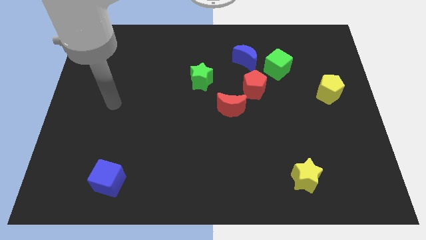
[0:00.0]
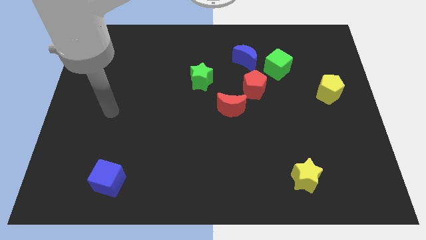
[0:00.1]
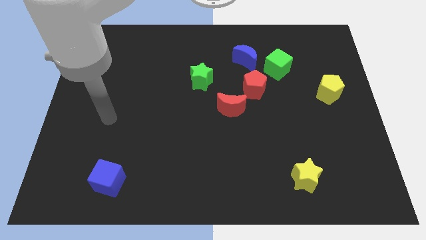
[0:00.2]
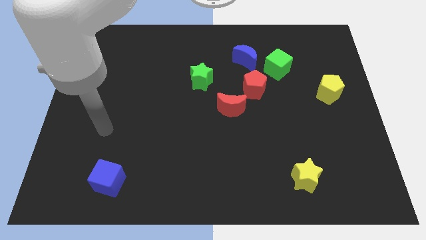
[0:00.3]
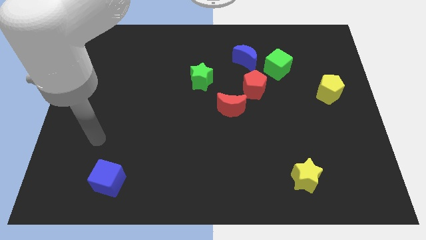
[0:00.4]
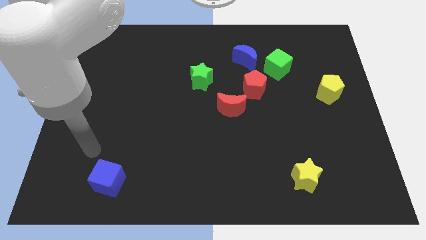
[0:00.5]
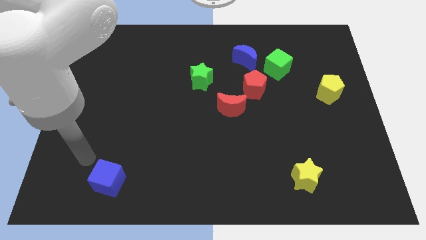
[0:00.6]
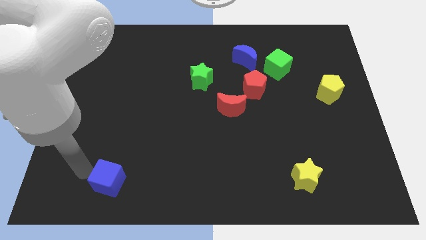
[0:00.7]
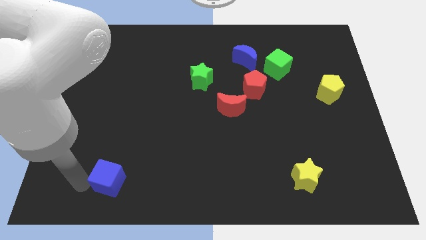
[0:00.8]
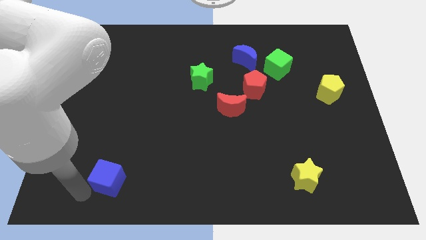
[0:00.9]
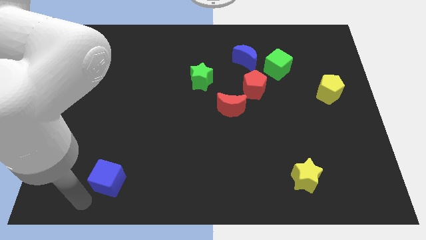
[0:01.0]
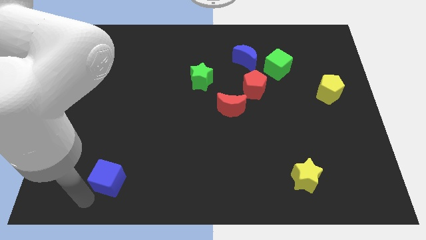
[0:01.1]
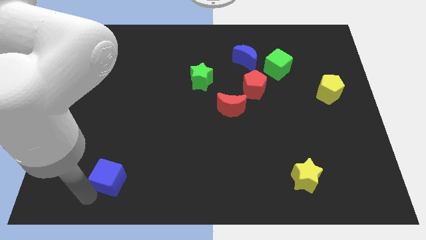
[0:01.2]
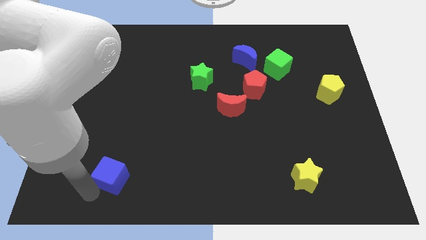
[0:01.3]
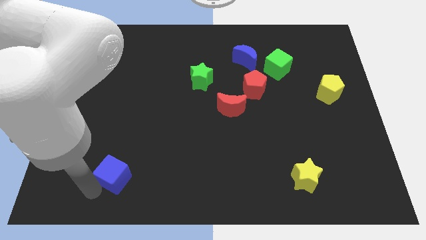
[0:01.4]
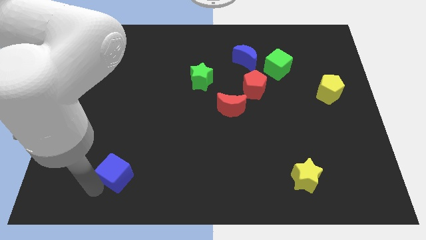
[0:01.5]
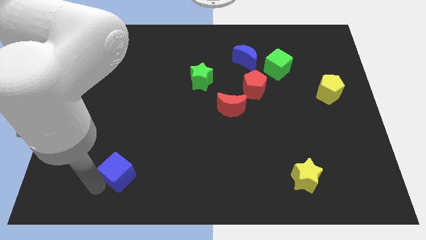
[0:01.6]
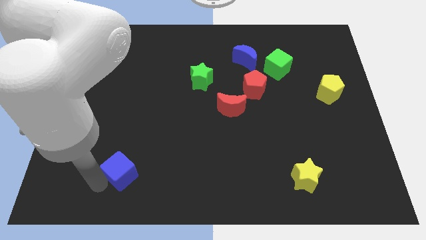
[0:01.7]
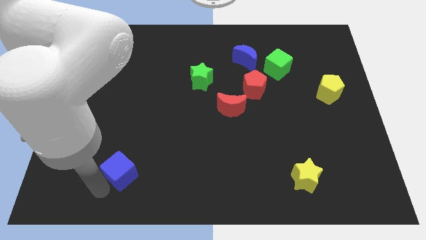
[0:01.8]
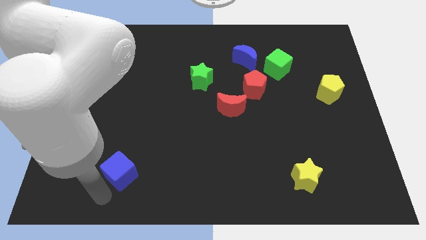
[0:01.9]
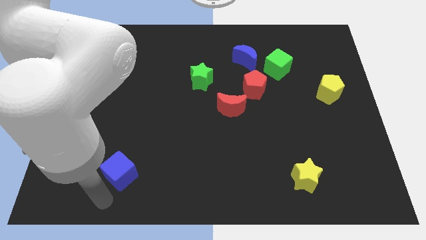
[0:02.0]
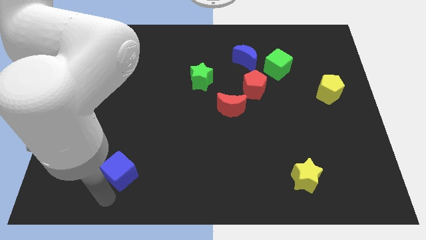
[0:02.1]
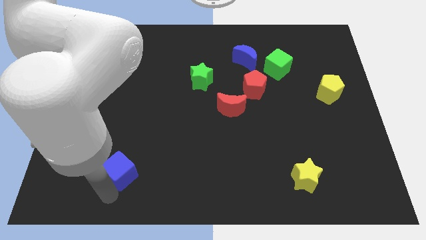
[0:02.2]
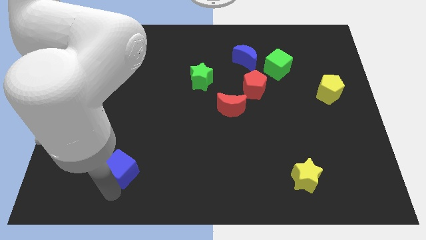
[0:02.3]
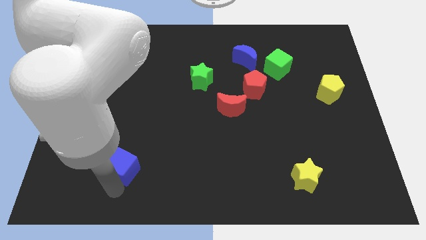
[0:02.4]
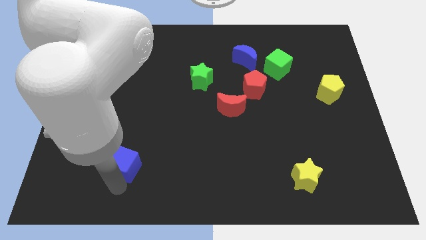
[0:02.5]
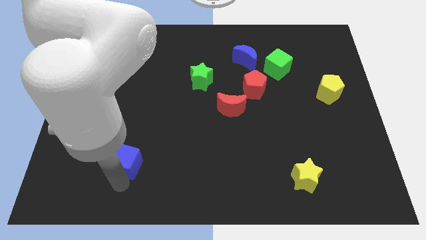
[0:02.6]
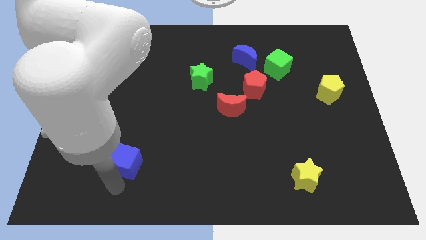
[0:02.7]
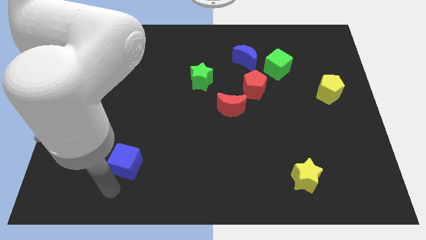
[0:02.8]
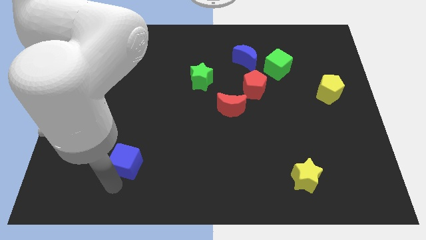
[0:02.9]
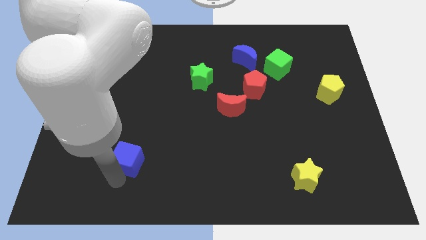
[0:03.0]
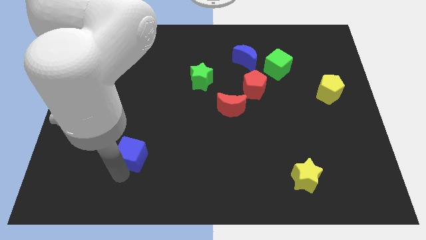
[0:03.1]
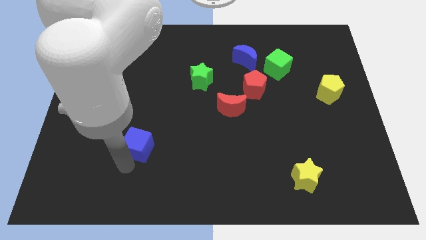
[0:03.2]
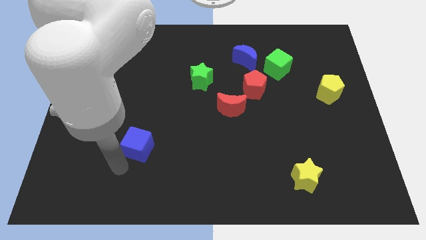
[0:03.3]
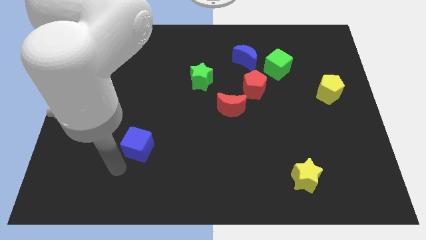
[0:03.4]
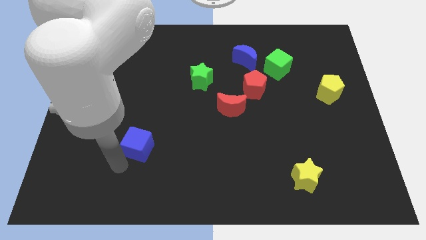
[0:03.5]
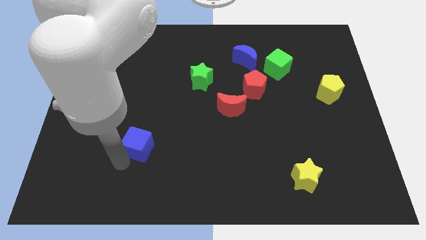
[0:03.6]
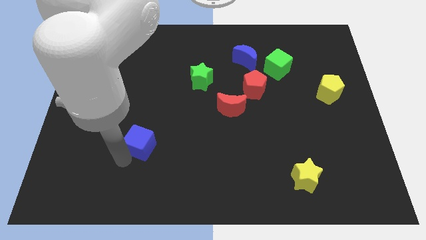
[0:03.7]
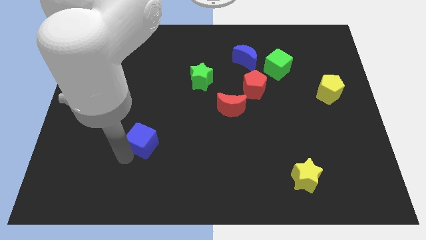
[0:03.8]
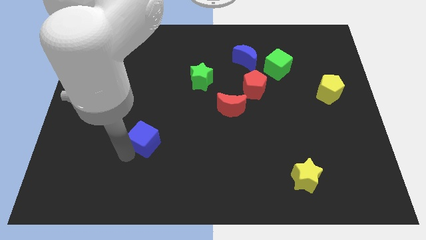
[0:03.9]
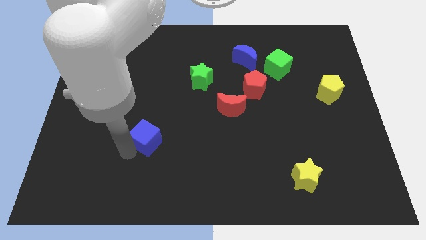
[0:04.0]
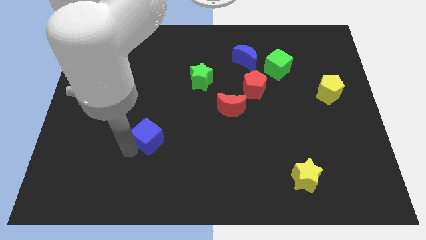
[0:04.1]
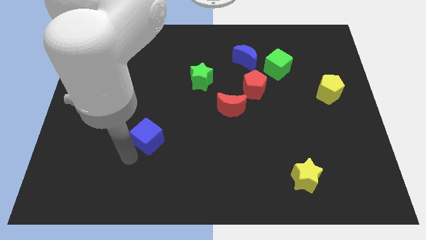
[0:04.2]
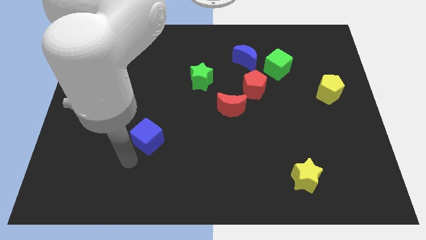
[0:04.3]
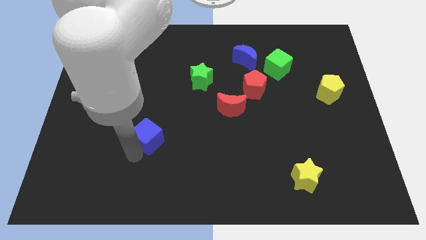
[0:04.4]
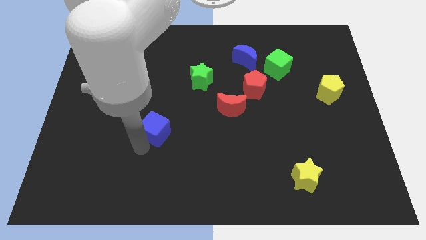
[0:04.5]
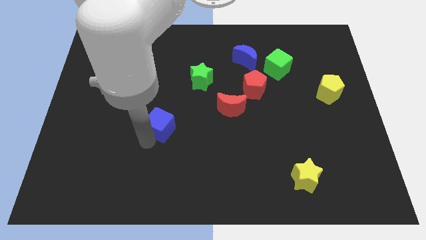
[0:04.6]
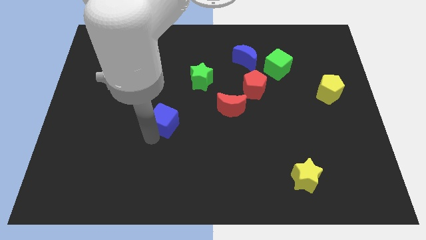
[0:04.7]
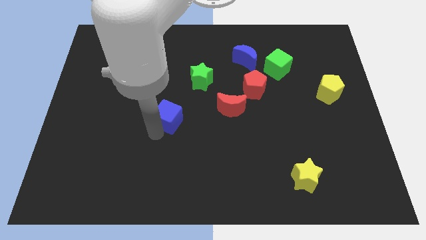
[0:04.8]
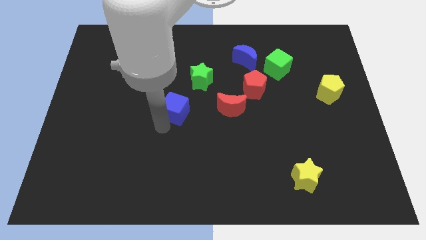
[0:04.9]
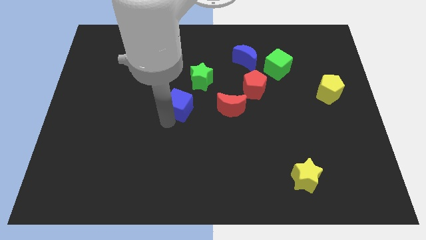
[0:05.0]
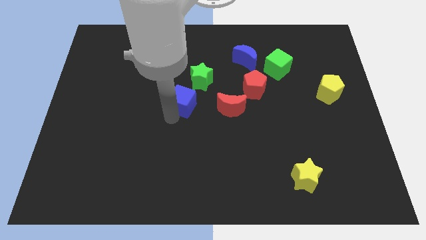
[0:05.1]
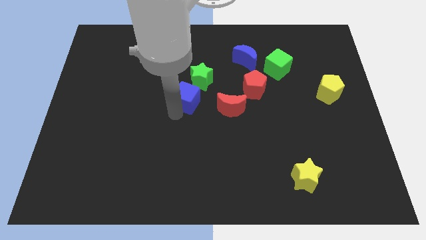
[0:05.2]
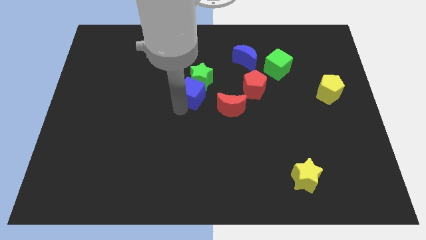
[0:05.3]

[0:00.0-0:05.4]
put the blue cube to the green star

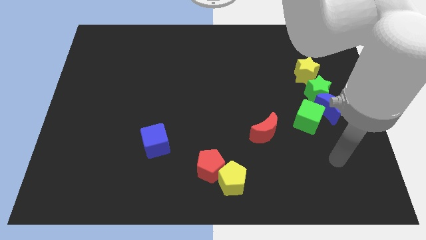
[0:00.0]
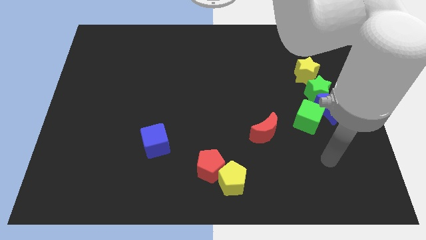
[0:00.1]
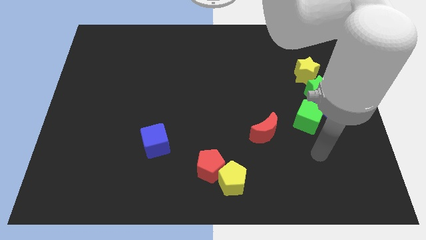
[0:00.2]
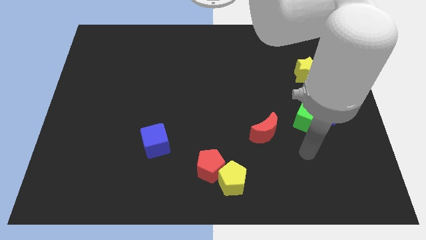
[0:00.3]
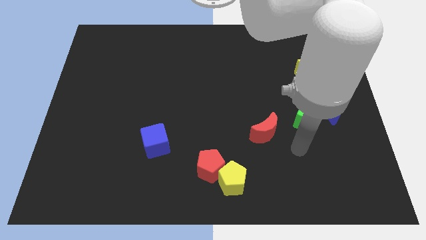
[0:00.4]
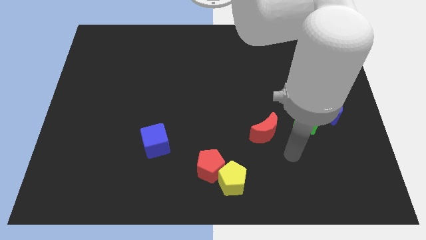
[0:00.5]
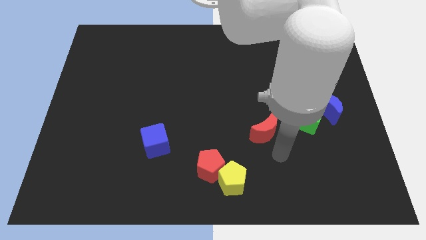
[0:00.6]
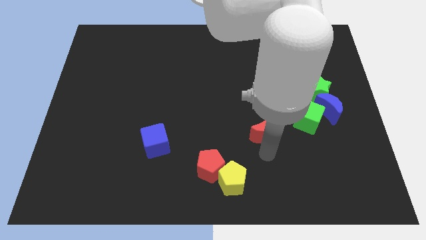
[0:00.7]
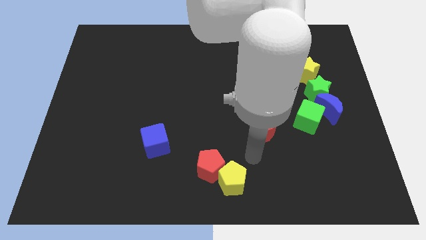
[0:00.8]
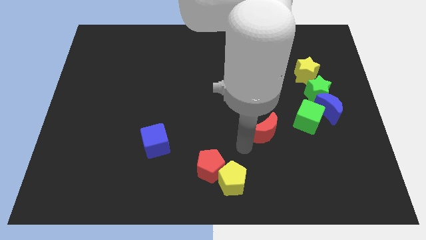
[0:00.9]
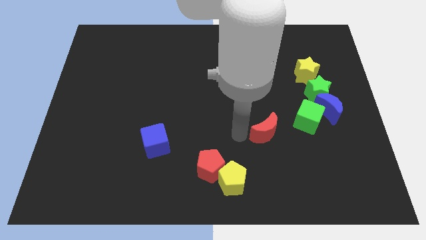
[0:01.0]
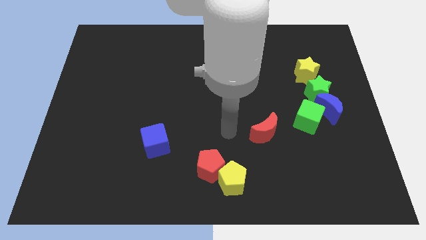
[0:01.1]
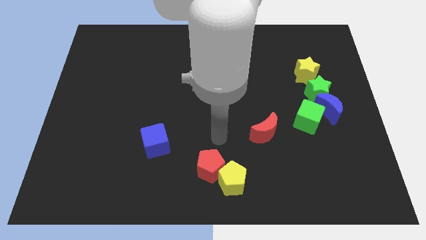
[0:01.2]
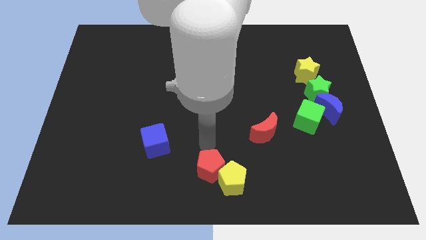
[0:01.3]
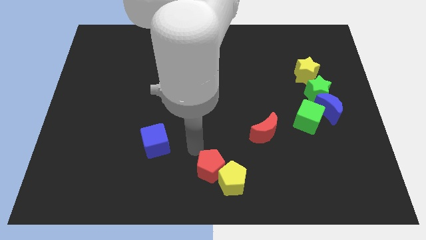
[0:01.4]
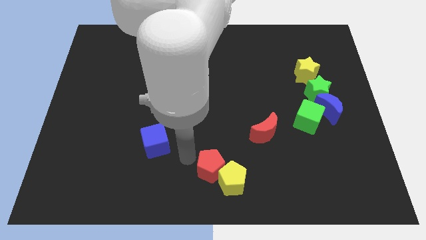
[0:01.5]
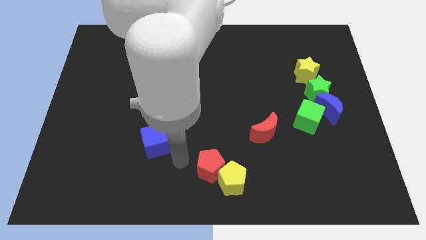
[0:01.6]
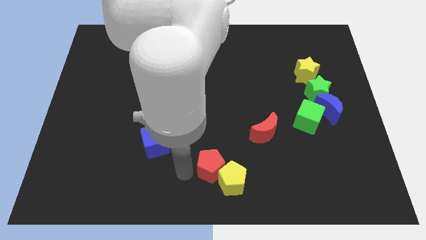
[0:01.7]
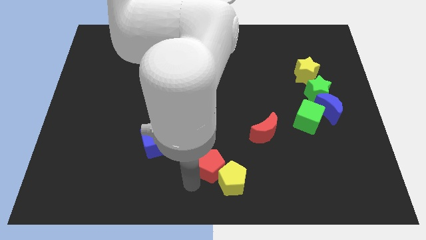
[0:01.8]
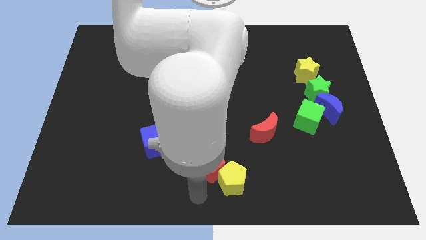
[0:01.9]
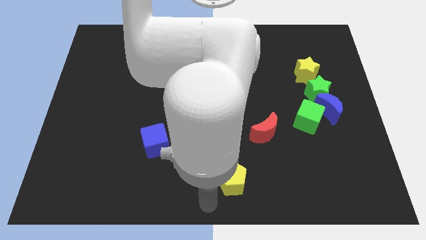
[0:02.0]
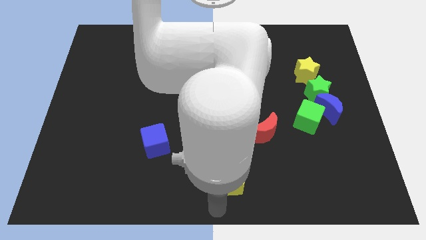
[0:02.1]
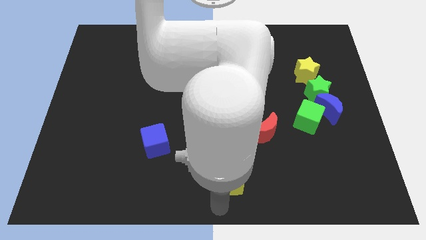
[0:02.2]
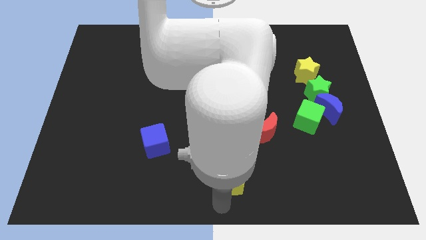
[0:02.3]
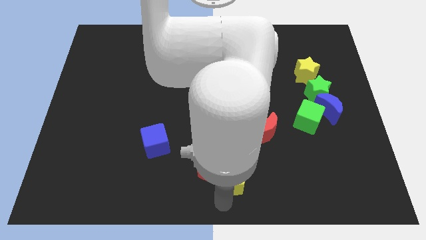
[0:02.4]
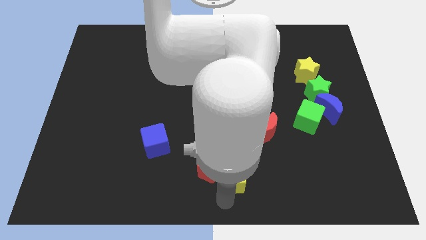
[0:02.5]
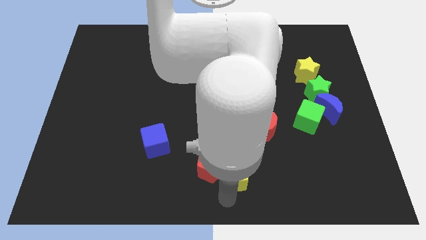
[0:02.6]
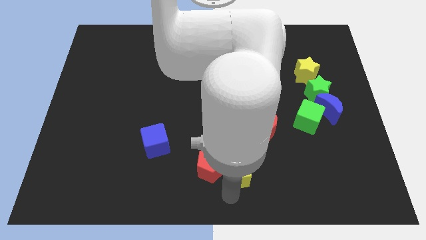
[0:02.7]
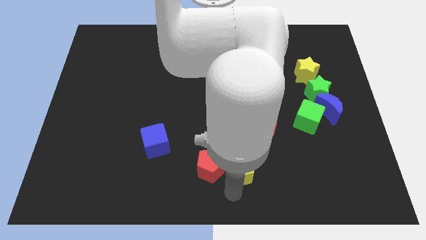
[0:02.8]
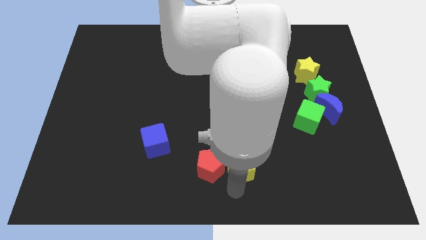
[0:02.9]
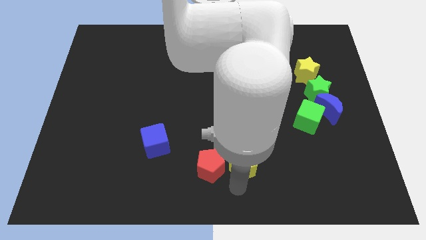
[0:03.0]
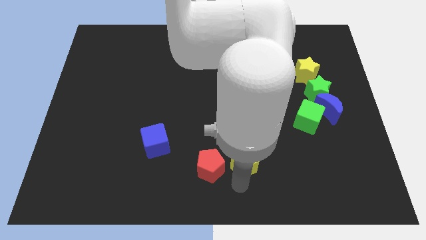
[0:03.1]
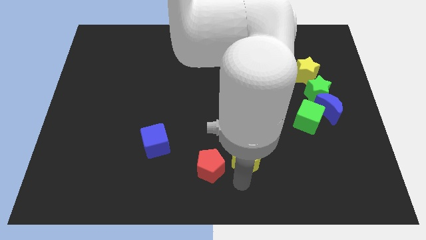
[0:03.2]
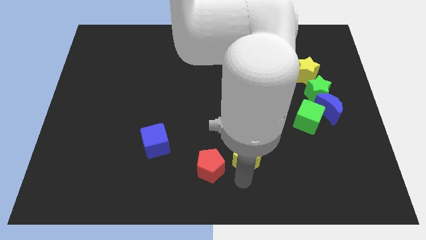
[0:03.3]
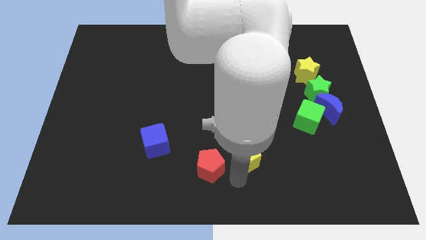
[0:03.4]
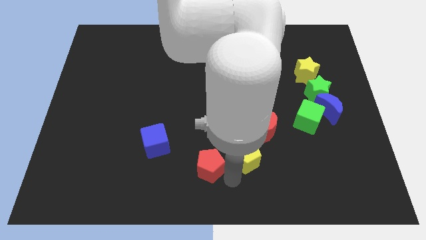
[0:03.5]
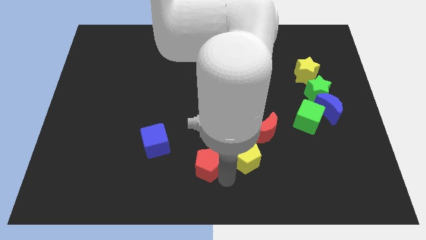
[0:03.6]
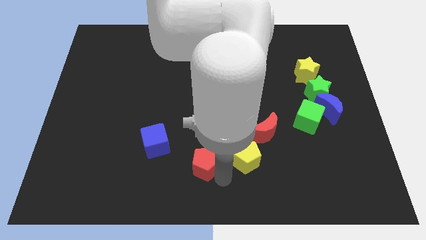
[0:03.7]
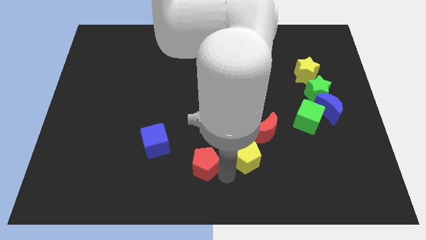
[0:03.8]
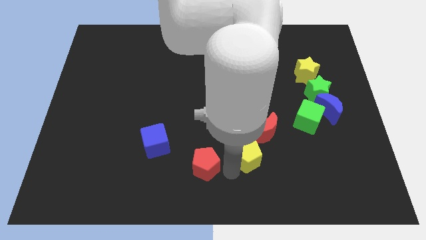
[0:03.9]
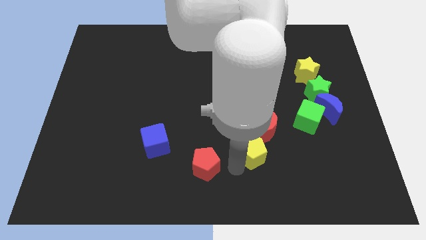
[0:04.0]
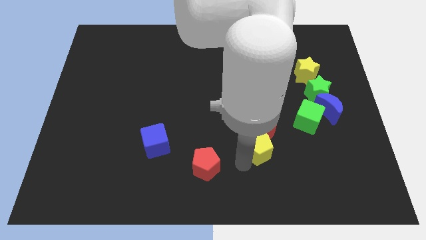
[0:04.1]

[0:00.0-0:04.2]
put the yellow pentagon next to the red moon
